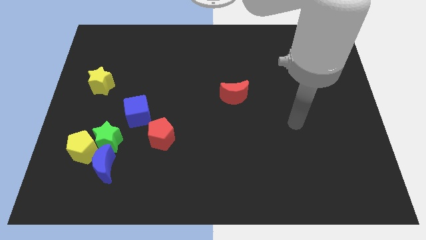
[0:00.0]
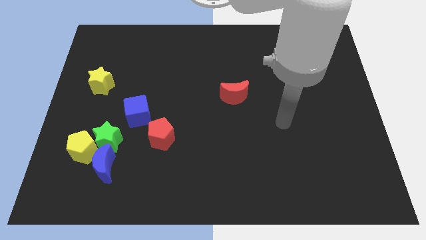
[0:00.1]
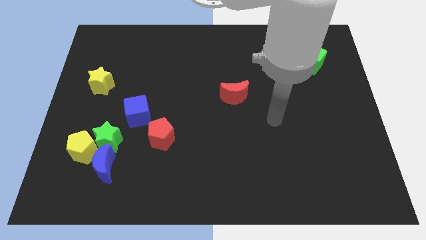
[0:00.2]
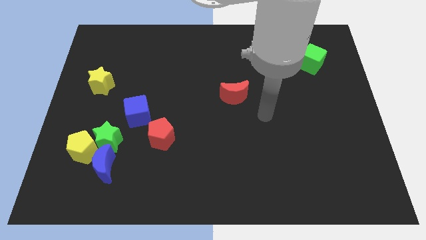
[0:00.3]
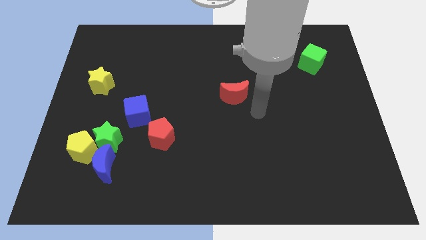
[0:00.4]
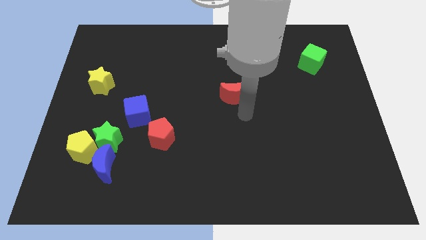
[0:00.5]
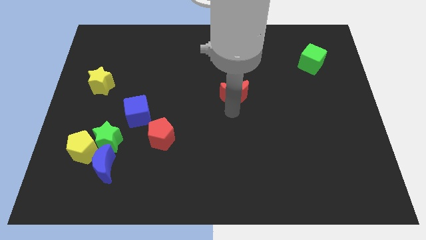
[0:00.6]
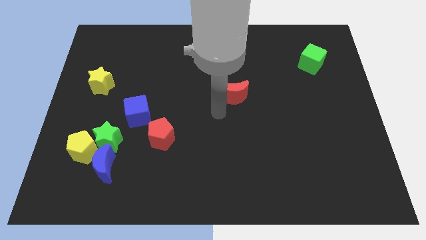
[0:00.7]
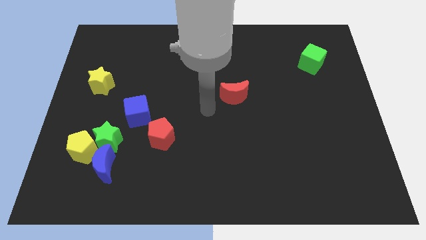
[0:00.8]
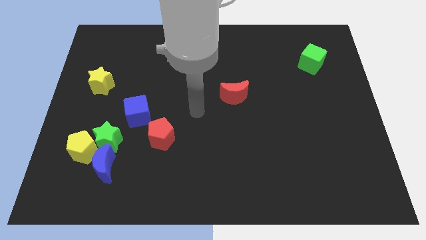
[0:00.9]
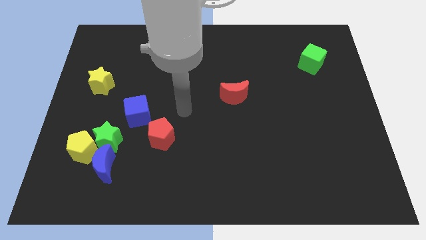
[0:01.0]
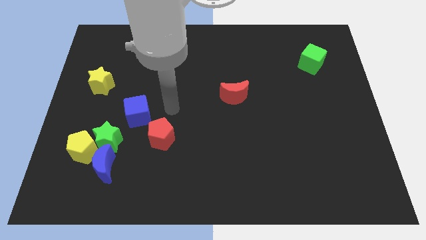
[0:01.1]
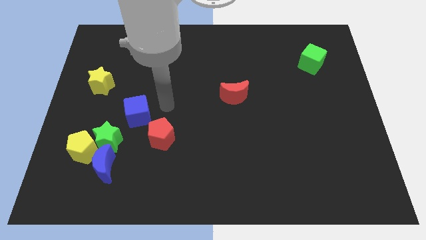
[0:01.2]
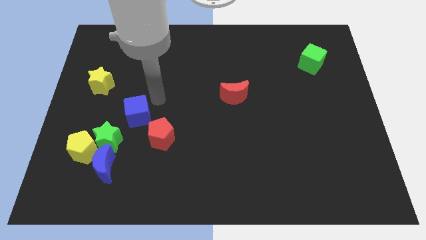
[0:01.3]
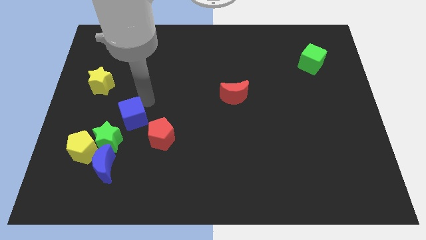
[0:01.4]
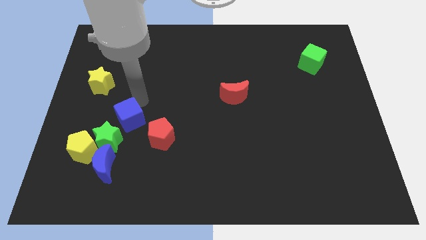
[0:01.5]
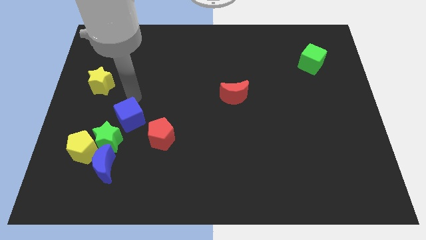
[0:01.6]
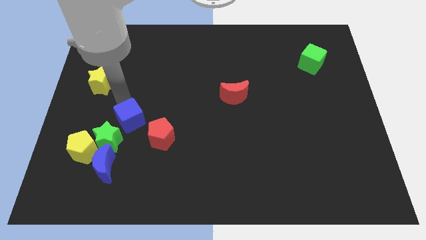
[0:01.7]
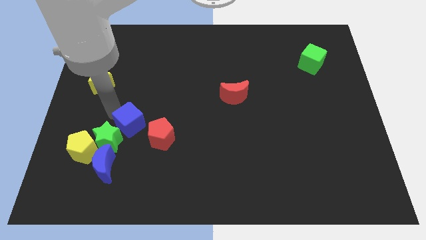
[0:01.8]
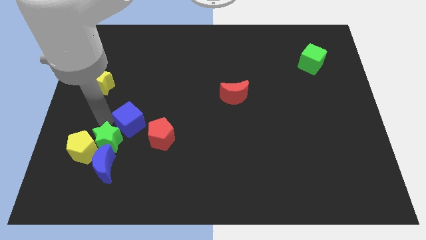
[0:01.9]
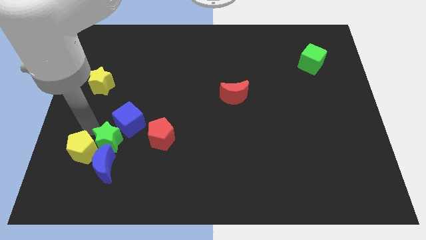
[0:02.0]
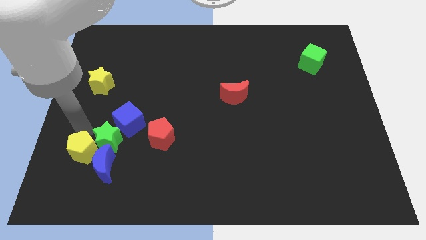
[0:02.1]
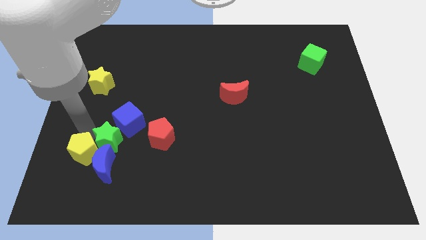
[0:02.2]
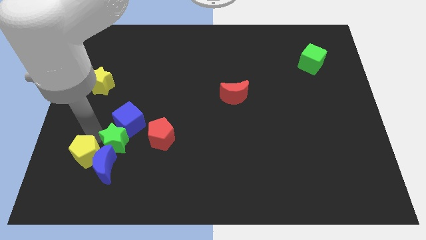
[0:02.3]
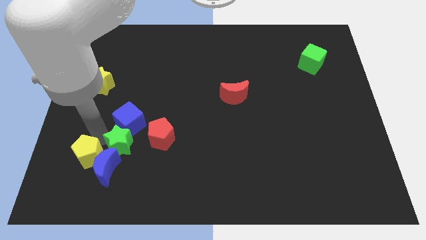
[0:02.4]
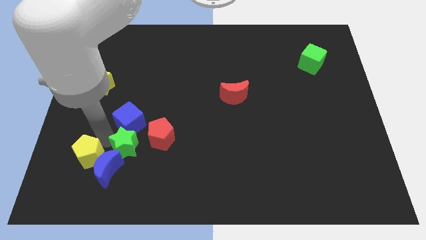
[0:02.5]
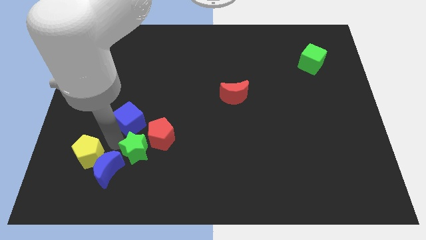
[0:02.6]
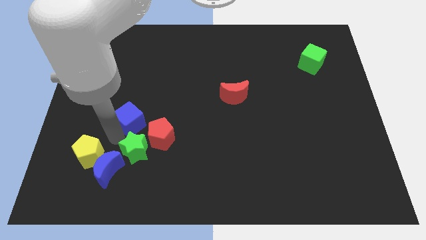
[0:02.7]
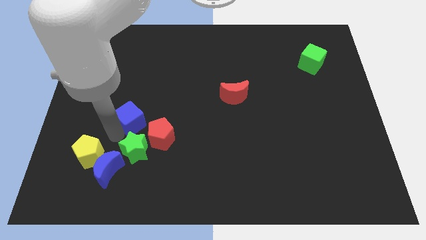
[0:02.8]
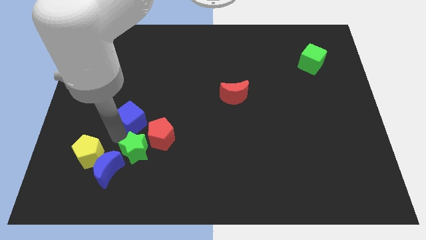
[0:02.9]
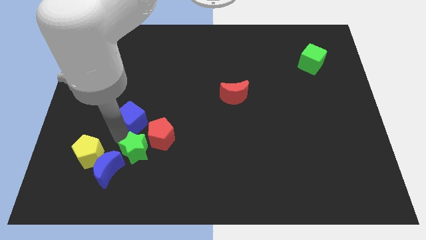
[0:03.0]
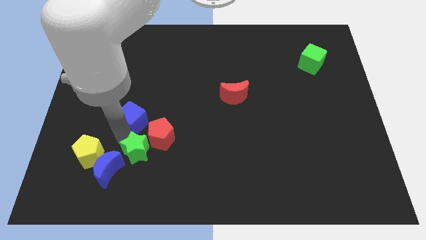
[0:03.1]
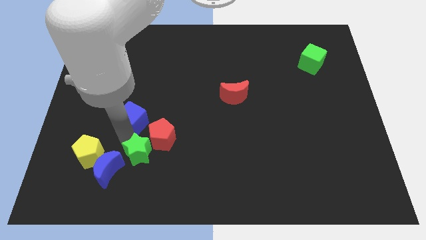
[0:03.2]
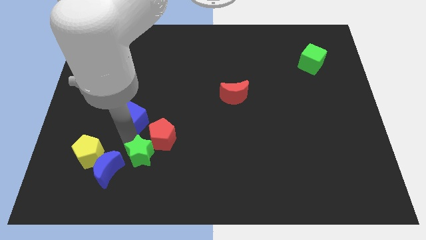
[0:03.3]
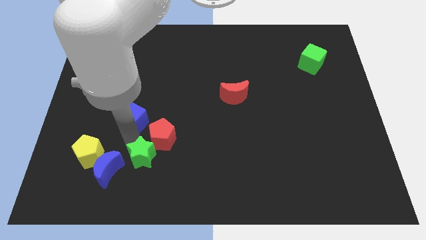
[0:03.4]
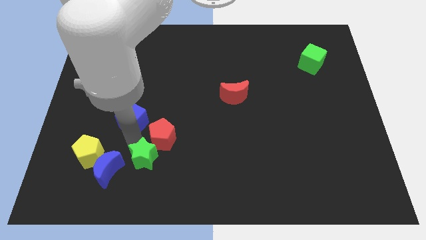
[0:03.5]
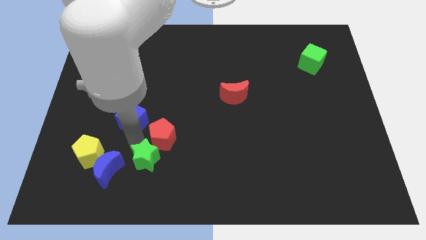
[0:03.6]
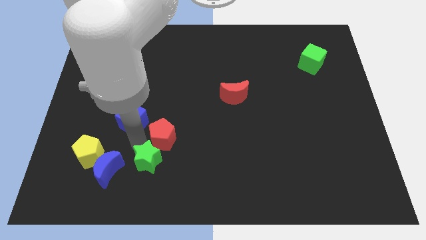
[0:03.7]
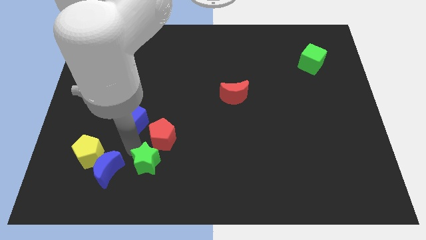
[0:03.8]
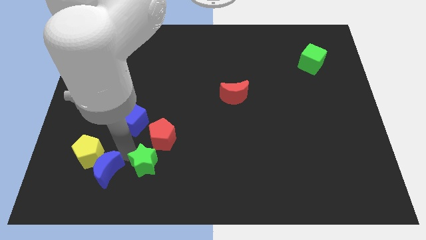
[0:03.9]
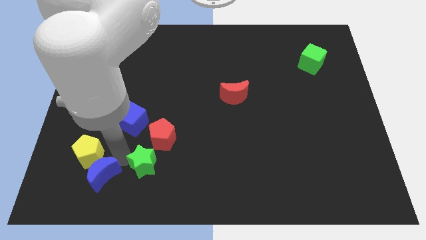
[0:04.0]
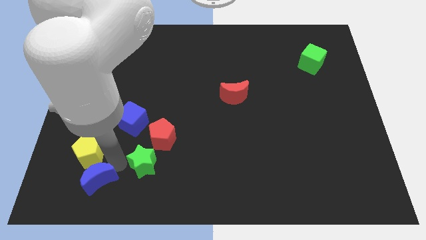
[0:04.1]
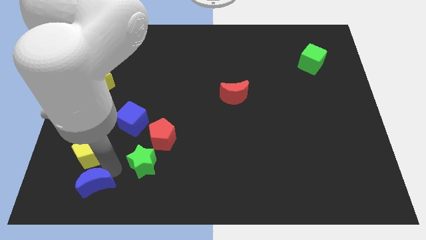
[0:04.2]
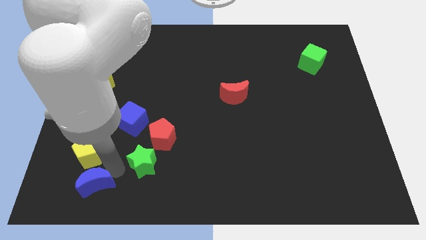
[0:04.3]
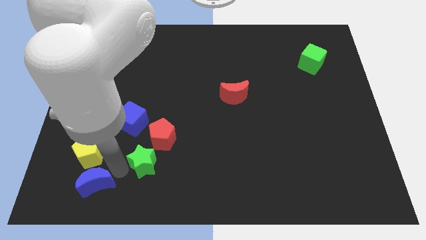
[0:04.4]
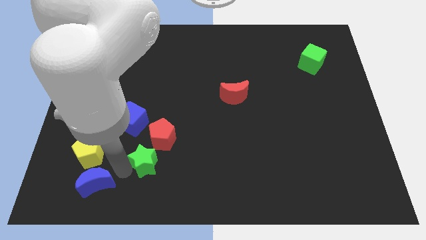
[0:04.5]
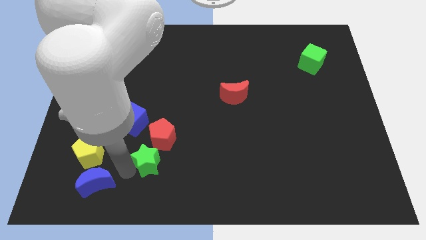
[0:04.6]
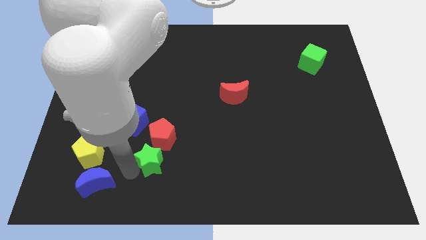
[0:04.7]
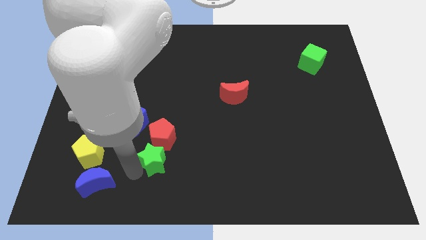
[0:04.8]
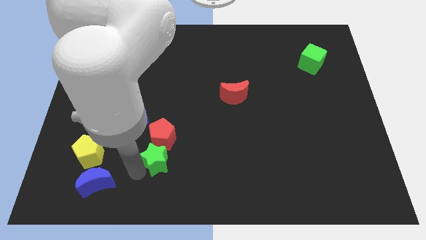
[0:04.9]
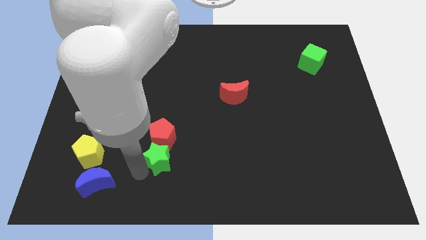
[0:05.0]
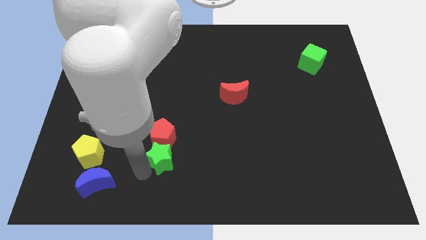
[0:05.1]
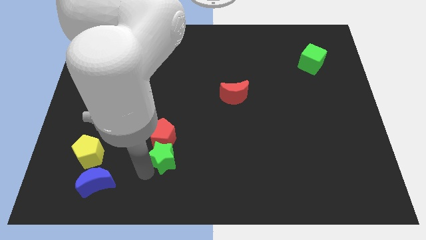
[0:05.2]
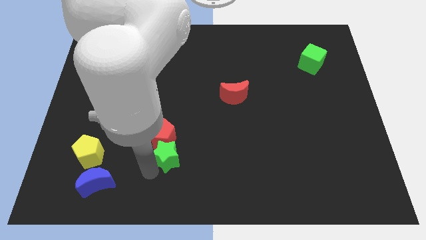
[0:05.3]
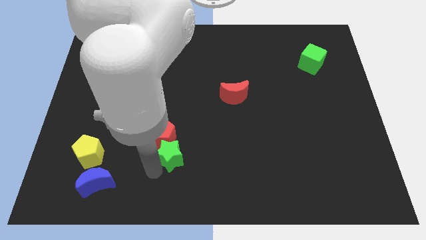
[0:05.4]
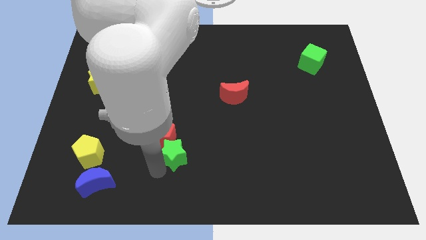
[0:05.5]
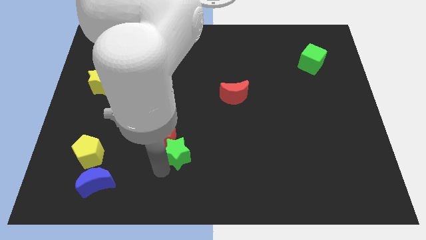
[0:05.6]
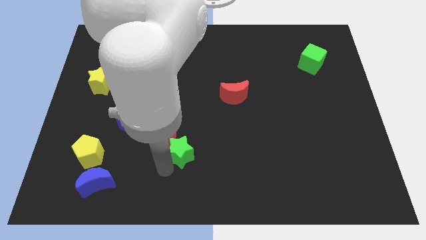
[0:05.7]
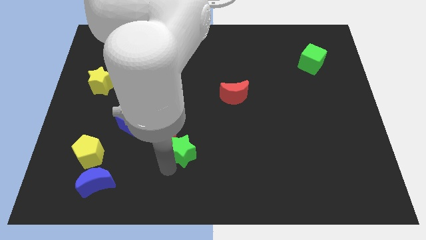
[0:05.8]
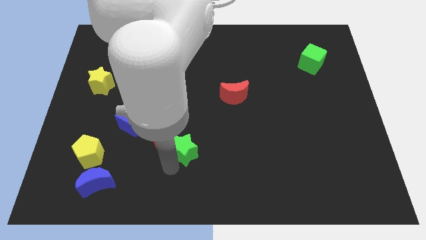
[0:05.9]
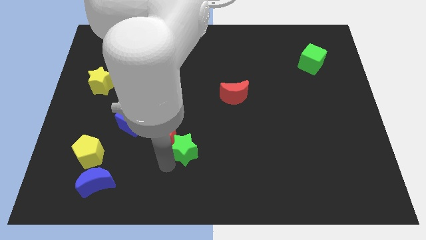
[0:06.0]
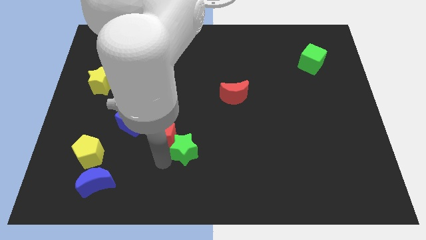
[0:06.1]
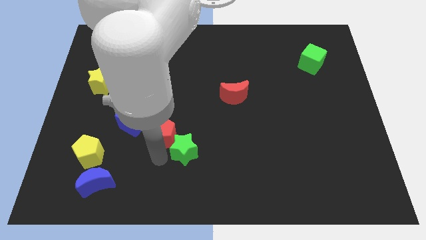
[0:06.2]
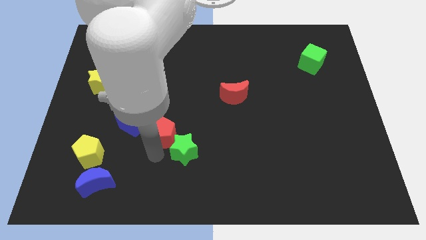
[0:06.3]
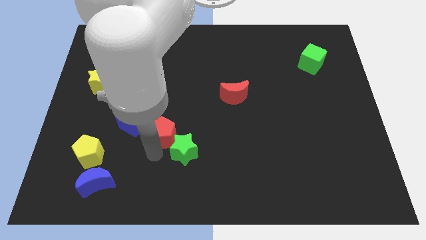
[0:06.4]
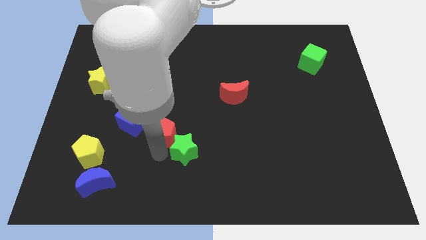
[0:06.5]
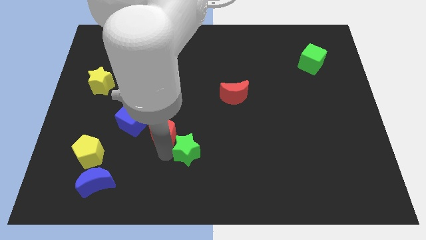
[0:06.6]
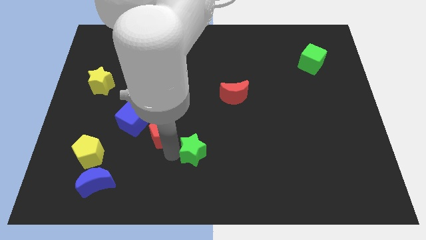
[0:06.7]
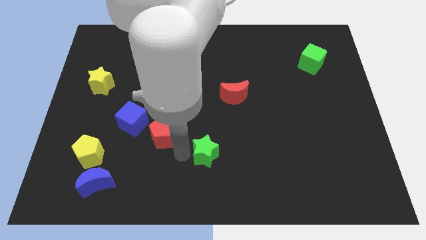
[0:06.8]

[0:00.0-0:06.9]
move the green star right

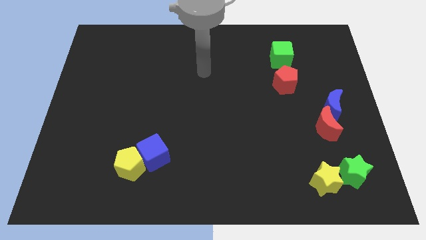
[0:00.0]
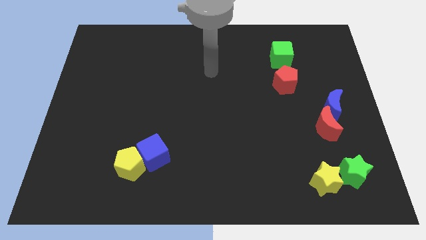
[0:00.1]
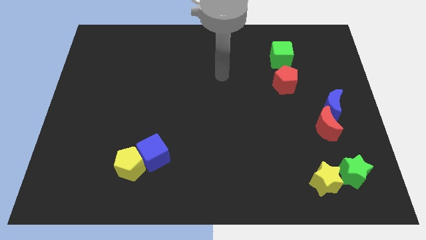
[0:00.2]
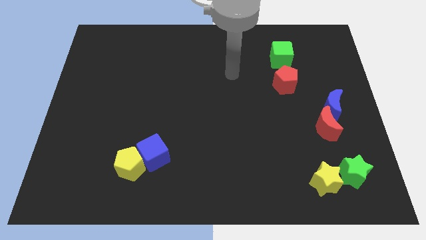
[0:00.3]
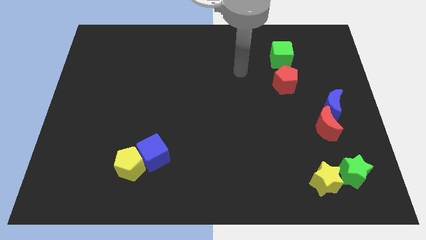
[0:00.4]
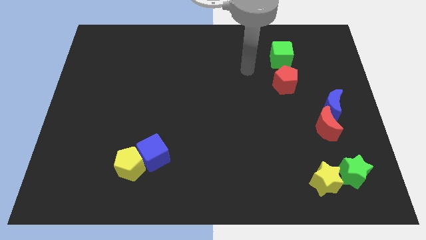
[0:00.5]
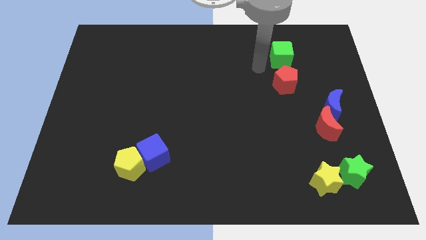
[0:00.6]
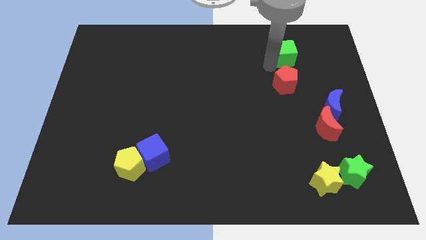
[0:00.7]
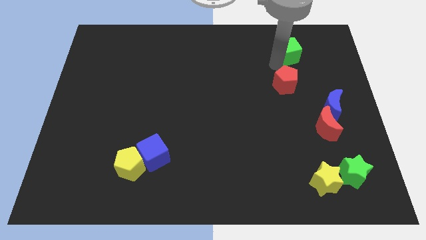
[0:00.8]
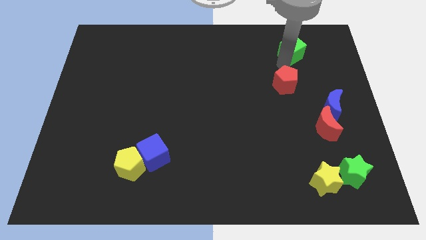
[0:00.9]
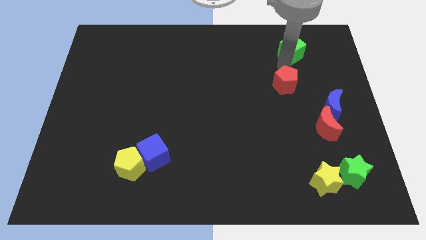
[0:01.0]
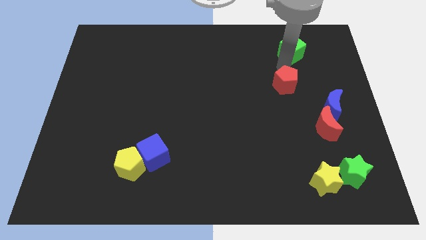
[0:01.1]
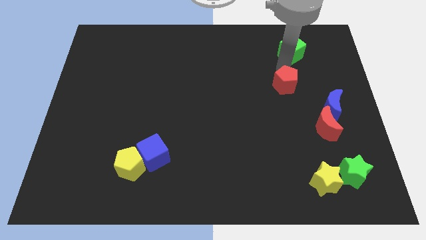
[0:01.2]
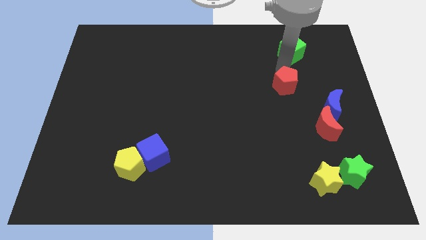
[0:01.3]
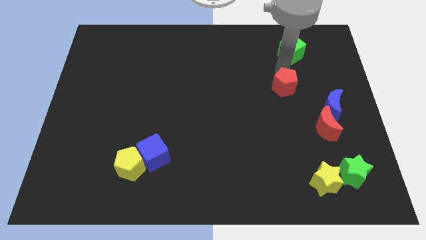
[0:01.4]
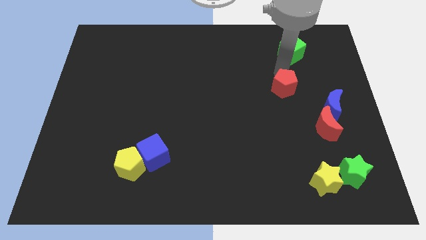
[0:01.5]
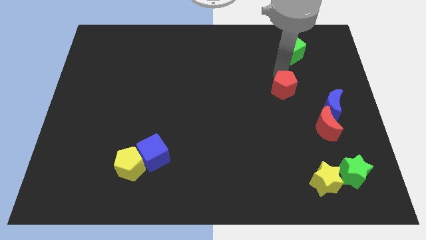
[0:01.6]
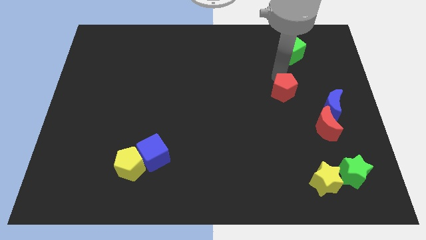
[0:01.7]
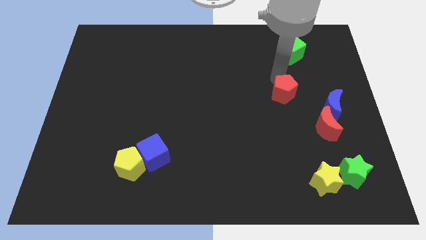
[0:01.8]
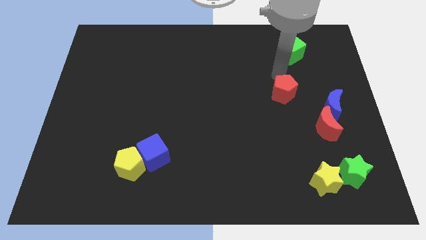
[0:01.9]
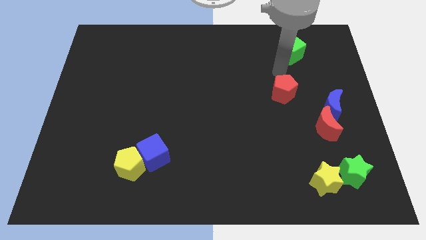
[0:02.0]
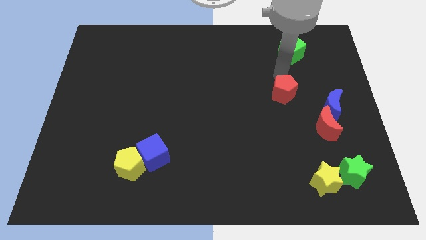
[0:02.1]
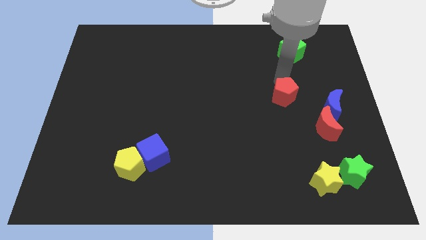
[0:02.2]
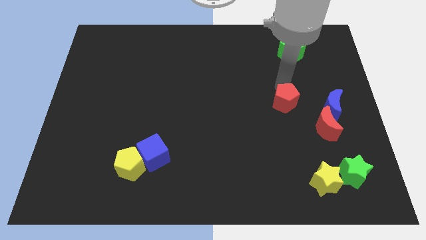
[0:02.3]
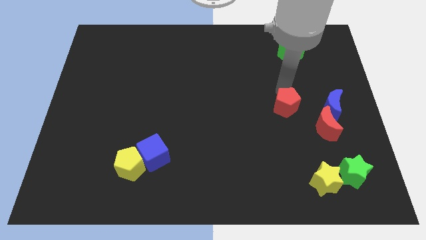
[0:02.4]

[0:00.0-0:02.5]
slide the red pentagon a bit downwards
